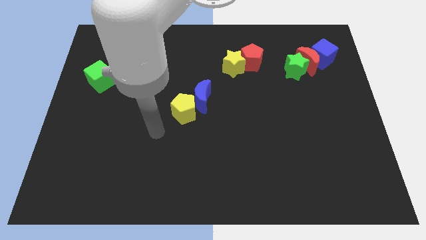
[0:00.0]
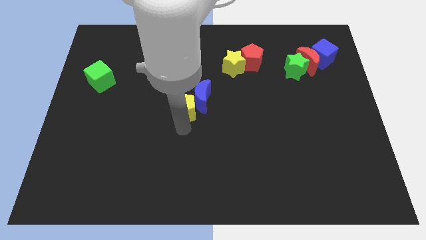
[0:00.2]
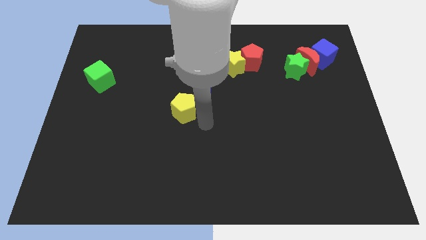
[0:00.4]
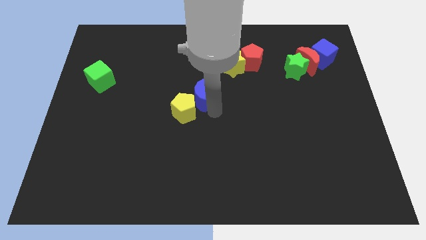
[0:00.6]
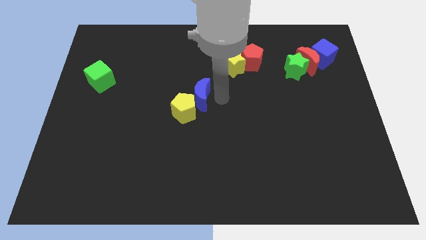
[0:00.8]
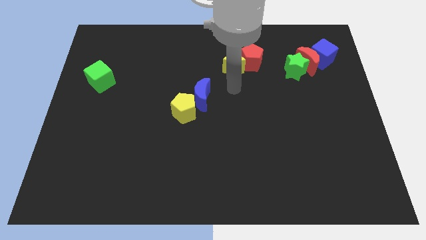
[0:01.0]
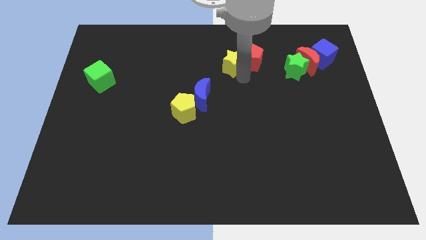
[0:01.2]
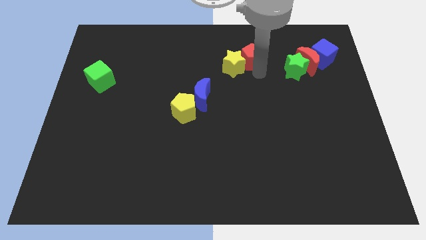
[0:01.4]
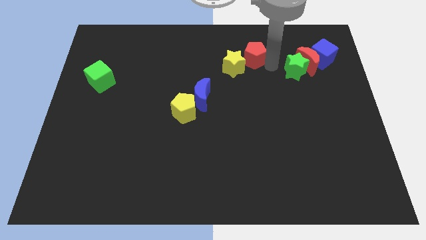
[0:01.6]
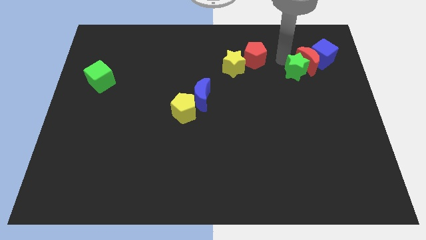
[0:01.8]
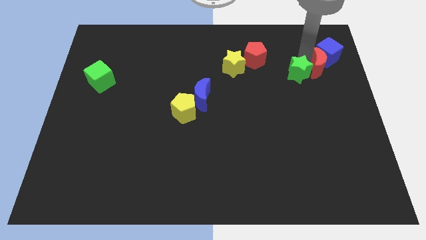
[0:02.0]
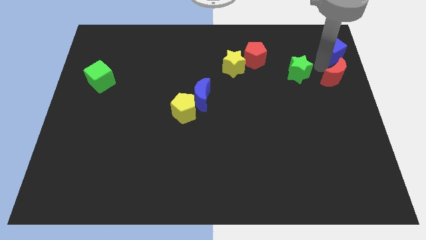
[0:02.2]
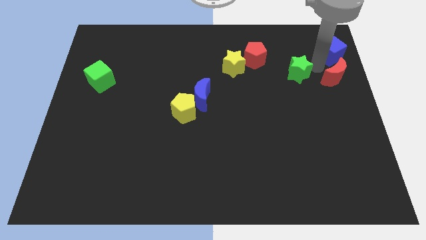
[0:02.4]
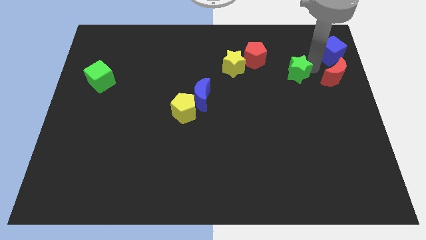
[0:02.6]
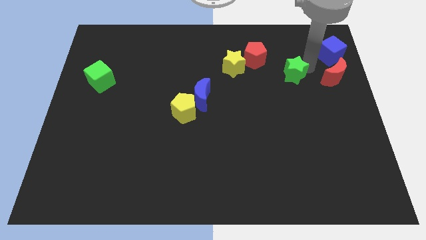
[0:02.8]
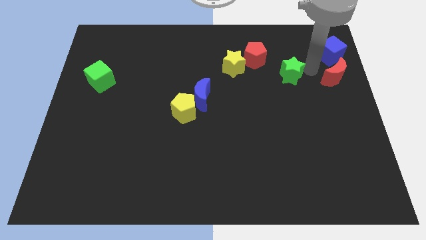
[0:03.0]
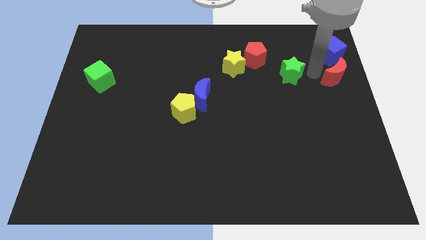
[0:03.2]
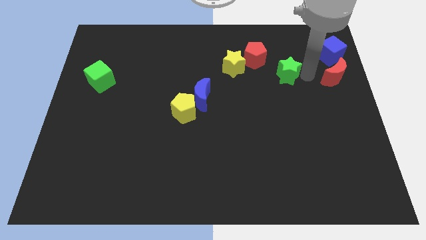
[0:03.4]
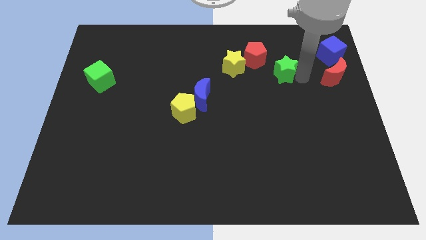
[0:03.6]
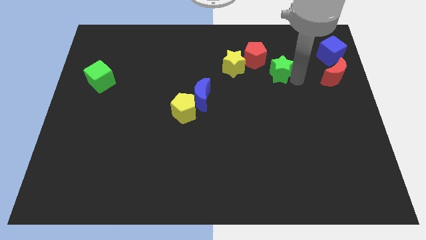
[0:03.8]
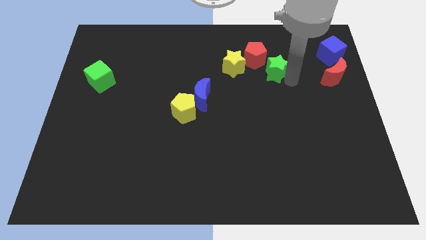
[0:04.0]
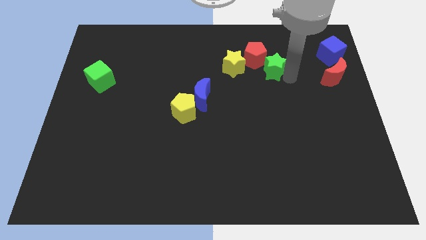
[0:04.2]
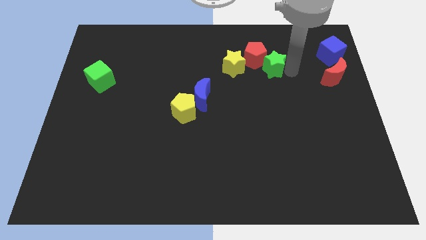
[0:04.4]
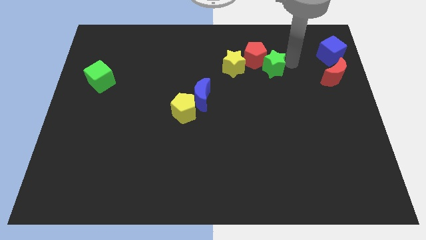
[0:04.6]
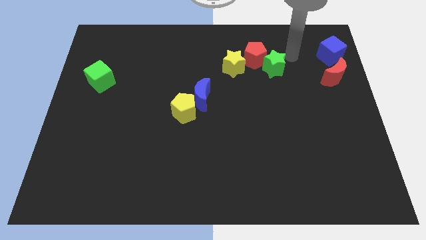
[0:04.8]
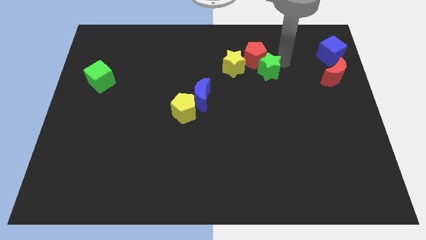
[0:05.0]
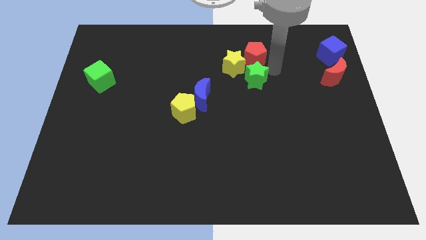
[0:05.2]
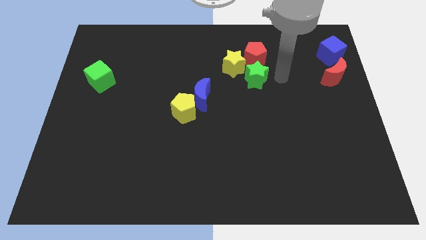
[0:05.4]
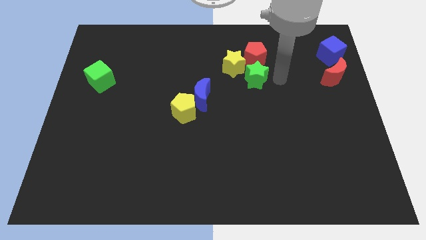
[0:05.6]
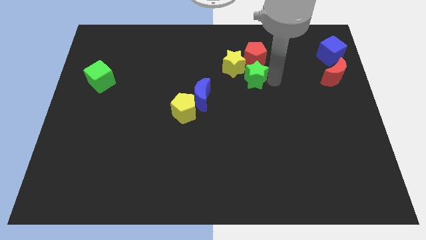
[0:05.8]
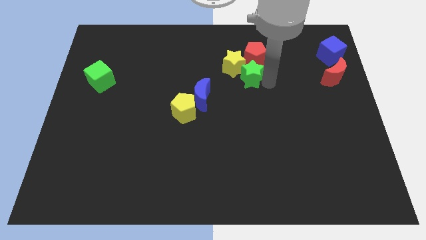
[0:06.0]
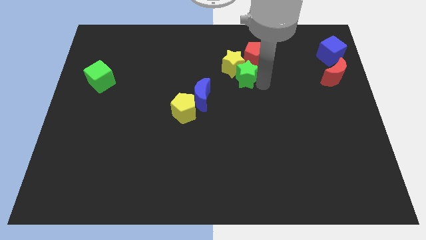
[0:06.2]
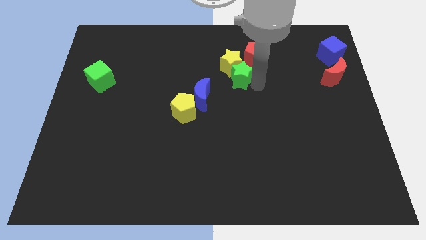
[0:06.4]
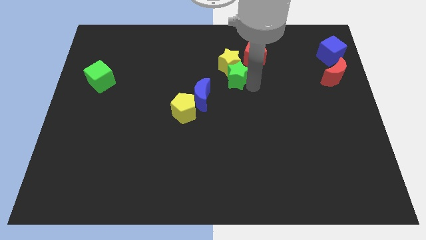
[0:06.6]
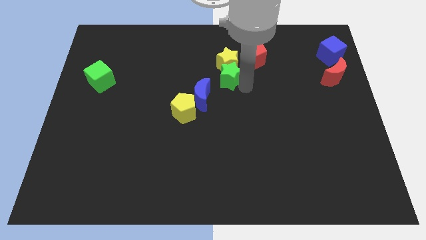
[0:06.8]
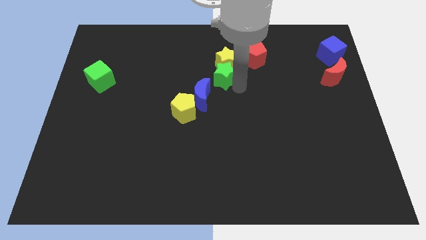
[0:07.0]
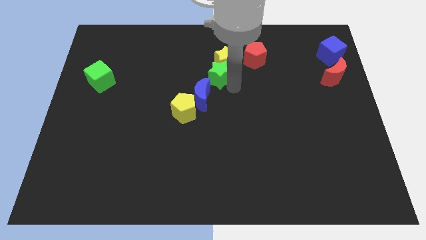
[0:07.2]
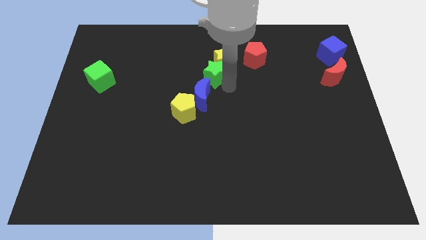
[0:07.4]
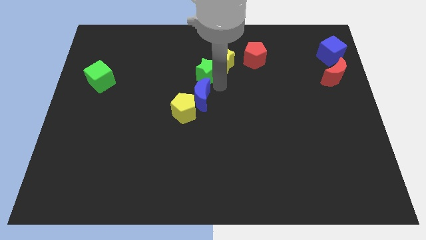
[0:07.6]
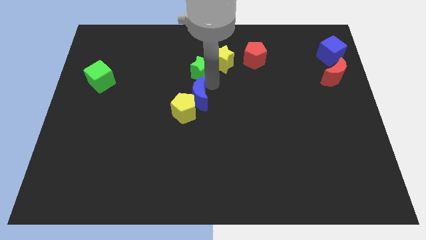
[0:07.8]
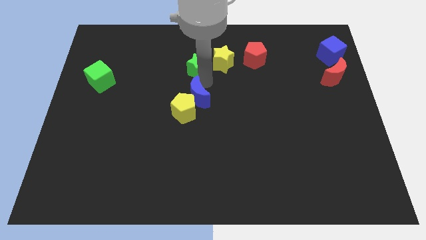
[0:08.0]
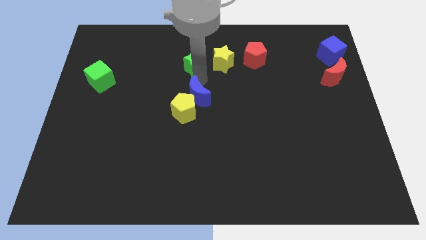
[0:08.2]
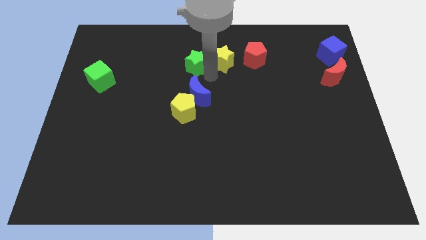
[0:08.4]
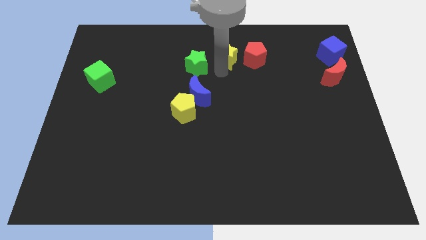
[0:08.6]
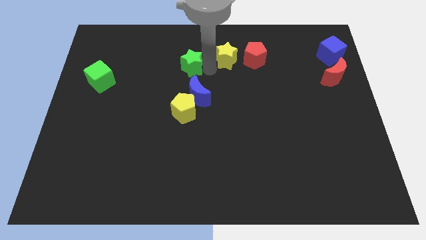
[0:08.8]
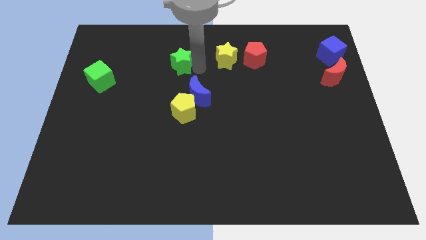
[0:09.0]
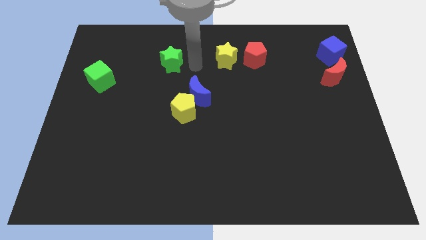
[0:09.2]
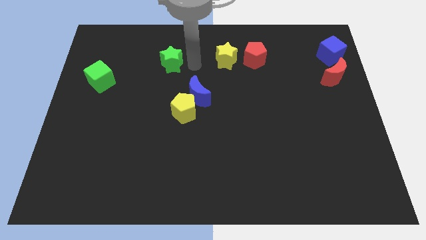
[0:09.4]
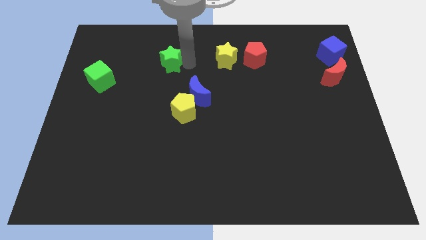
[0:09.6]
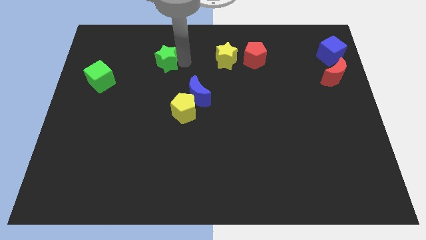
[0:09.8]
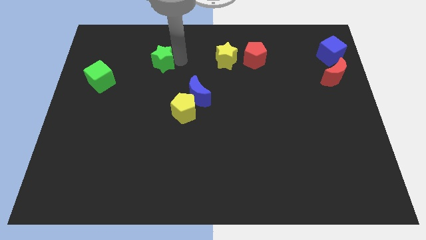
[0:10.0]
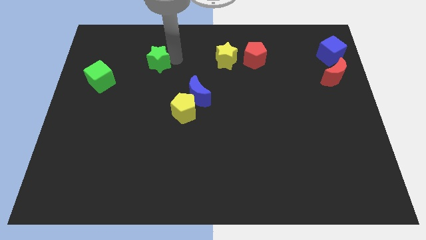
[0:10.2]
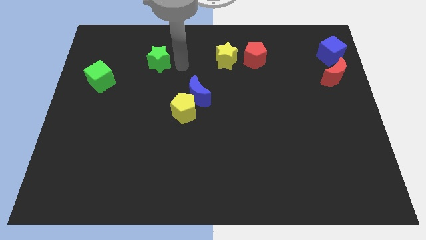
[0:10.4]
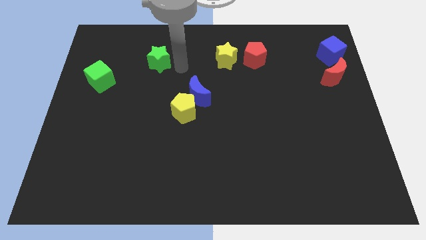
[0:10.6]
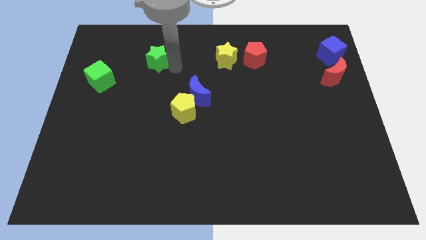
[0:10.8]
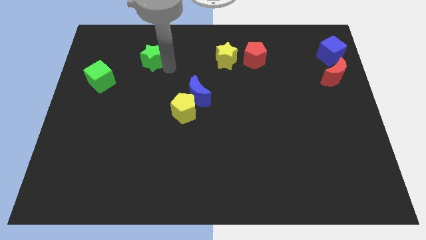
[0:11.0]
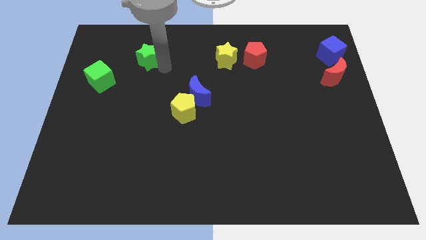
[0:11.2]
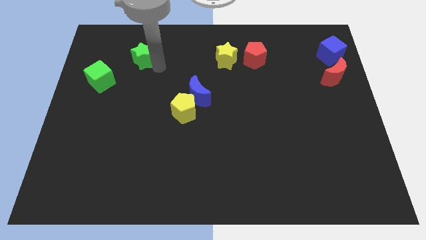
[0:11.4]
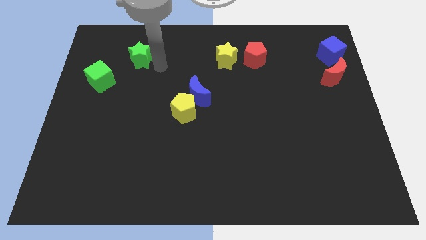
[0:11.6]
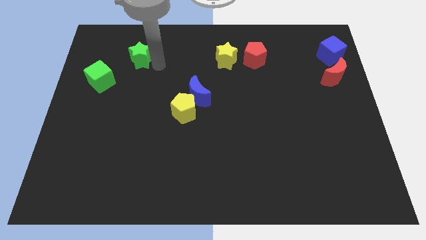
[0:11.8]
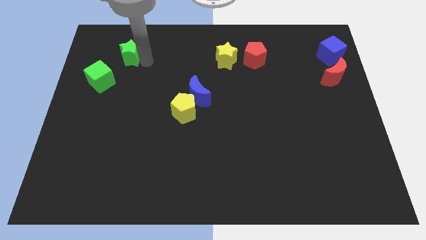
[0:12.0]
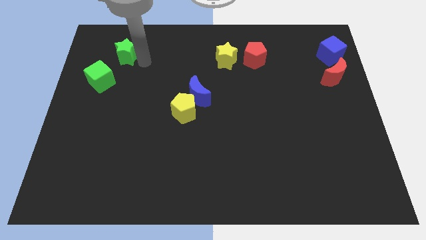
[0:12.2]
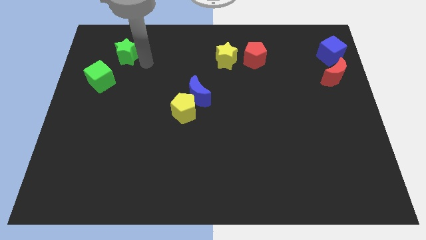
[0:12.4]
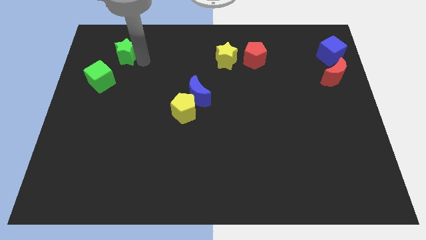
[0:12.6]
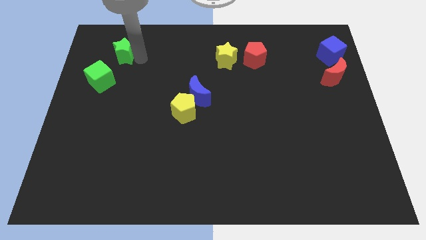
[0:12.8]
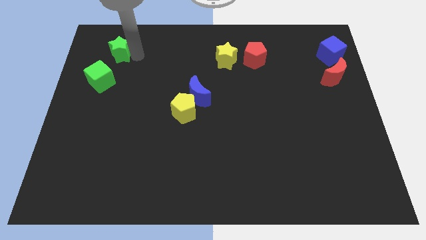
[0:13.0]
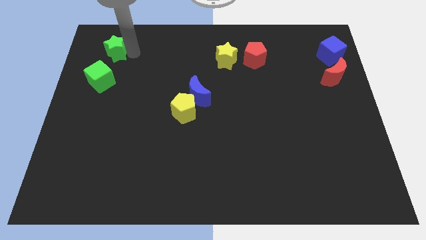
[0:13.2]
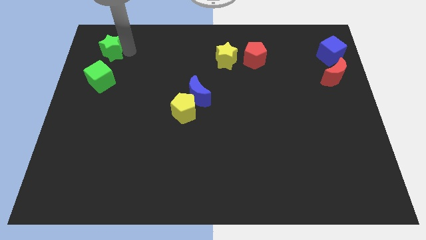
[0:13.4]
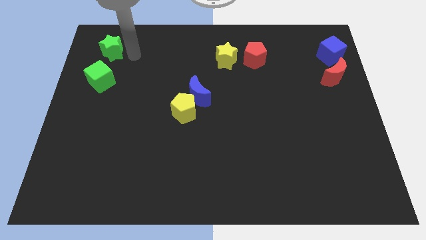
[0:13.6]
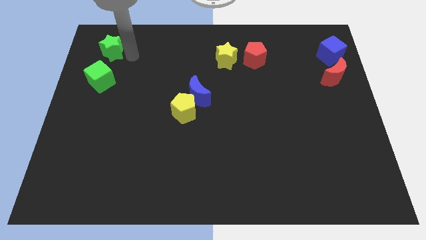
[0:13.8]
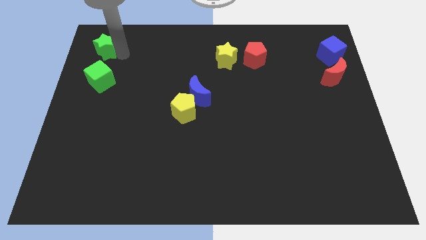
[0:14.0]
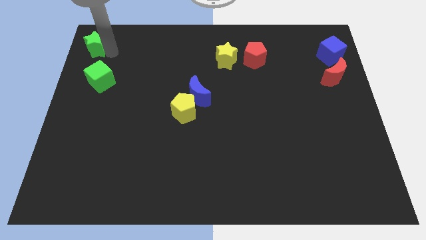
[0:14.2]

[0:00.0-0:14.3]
slide the green star to the top left of the board

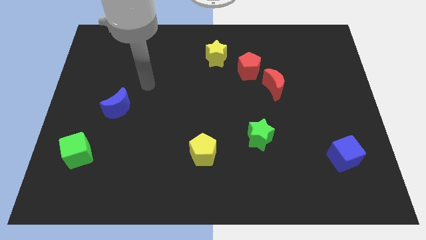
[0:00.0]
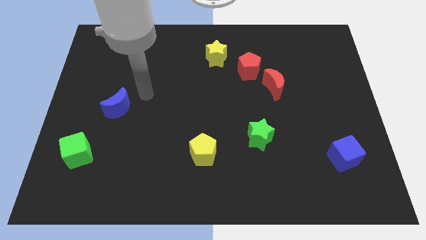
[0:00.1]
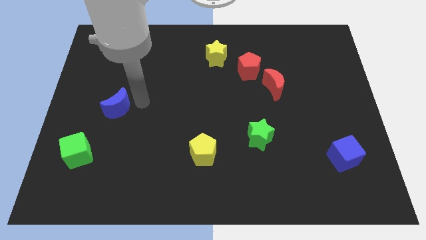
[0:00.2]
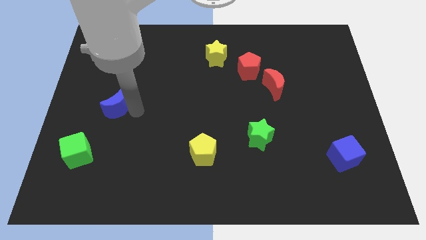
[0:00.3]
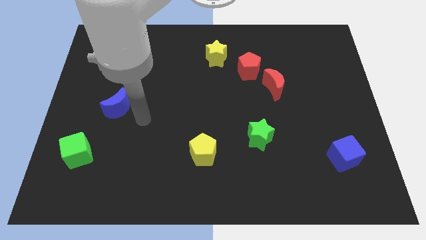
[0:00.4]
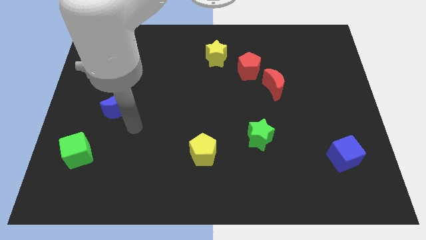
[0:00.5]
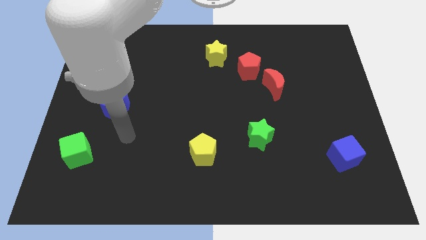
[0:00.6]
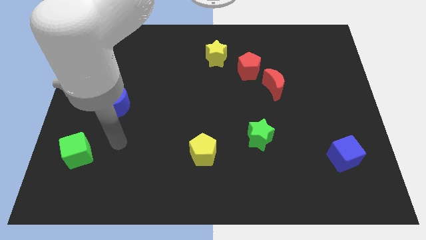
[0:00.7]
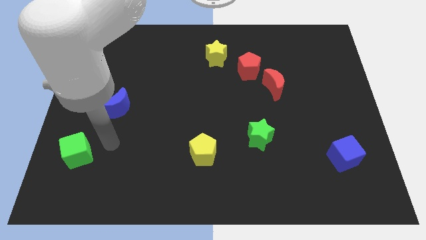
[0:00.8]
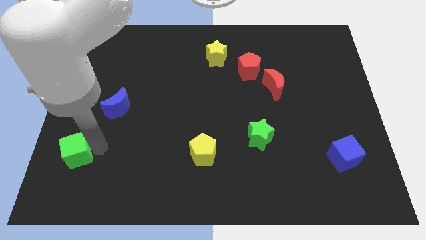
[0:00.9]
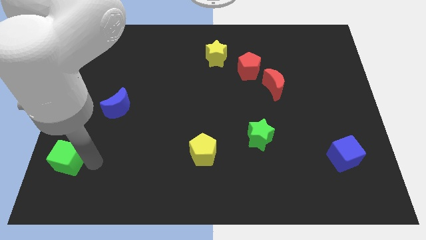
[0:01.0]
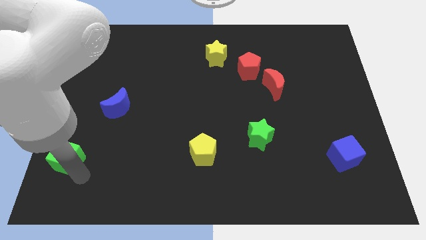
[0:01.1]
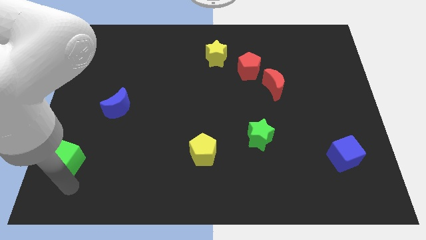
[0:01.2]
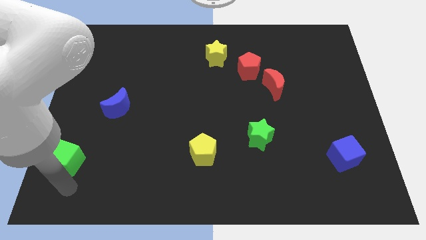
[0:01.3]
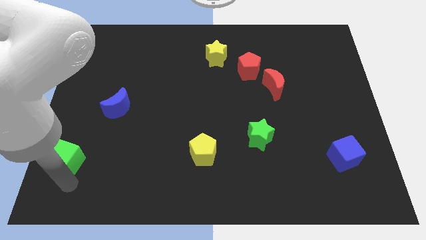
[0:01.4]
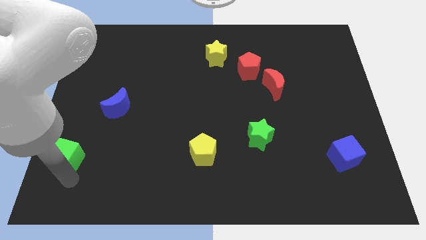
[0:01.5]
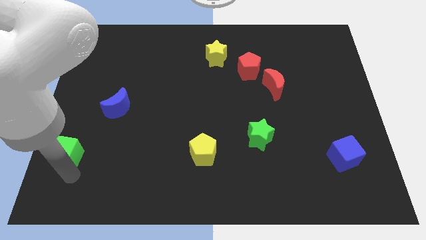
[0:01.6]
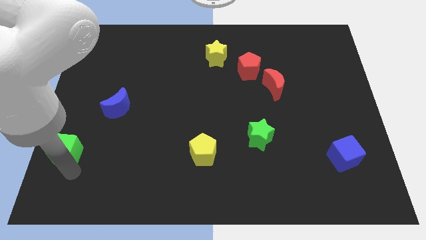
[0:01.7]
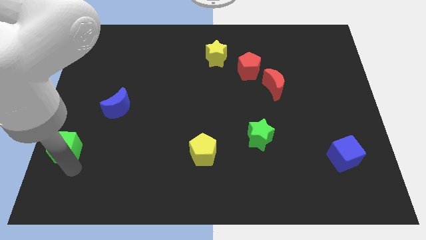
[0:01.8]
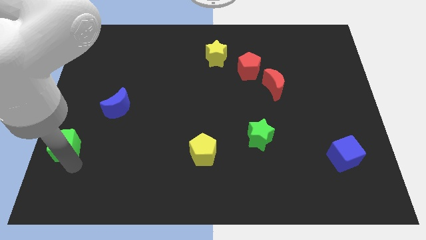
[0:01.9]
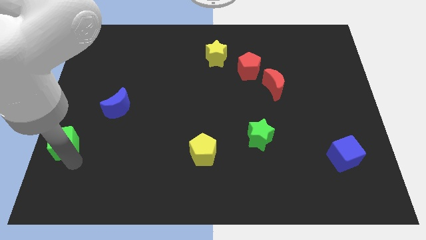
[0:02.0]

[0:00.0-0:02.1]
push the green cube to the center left
